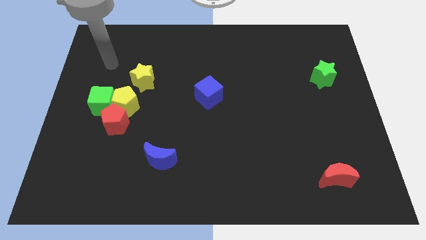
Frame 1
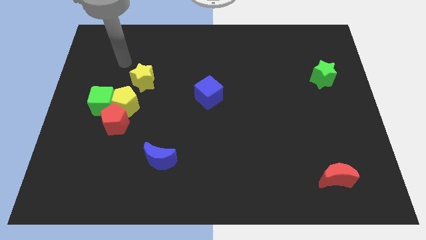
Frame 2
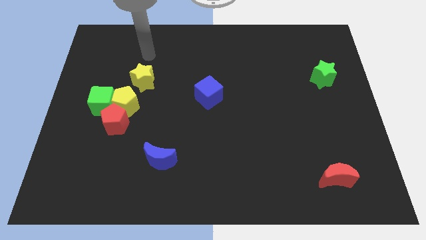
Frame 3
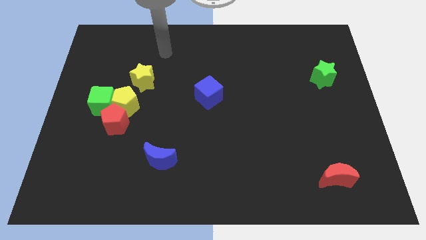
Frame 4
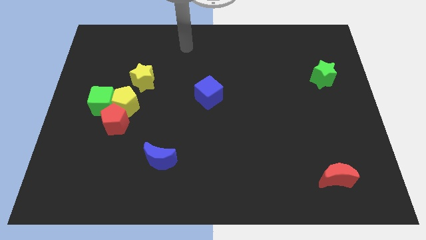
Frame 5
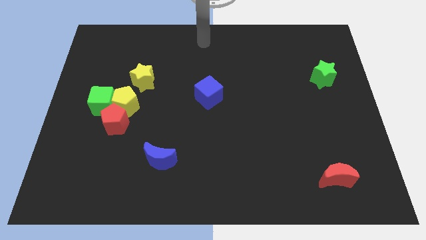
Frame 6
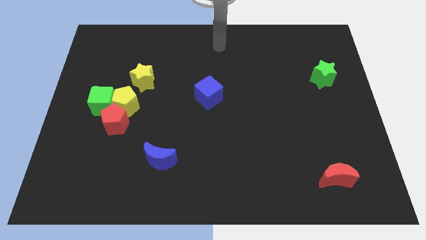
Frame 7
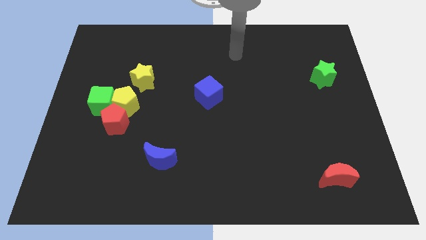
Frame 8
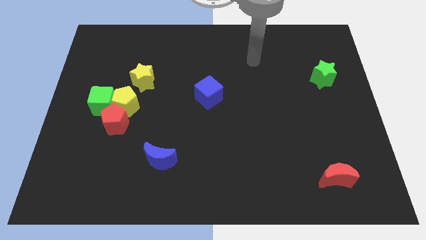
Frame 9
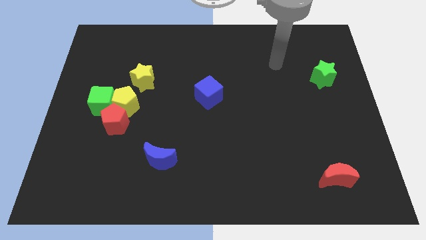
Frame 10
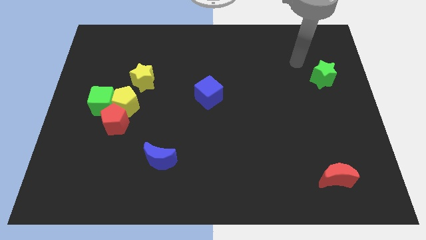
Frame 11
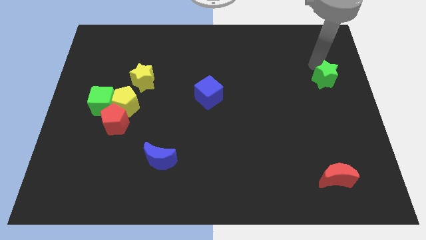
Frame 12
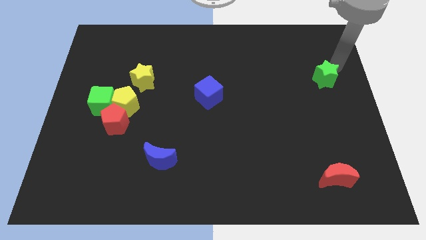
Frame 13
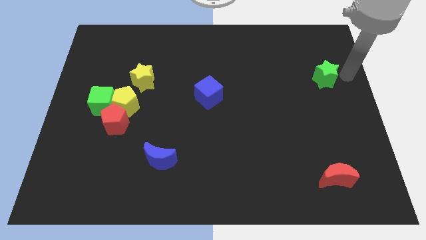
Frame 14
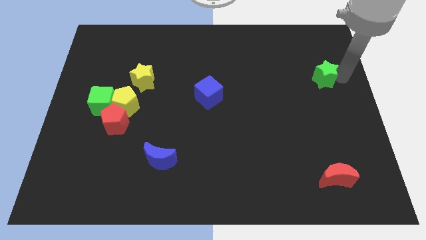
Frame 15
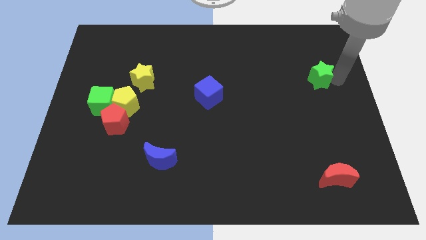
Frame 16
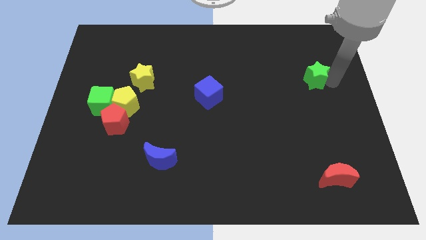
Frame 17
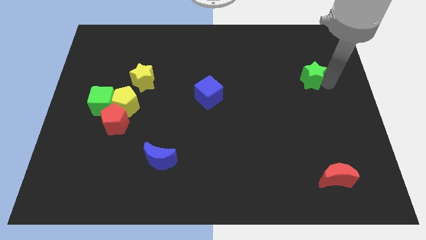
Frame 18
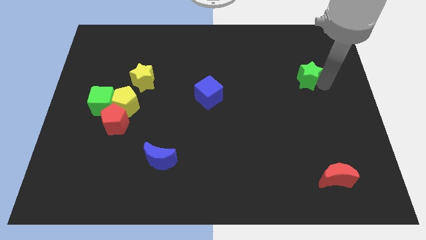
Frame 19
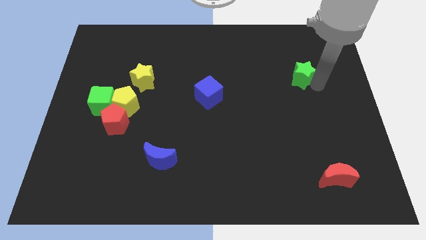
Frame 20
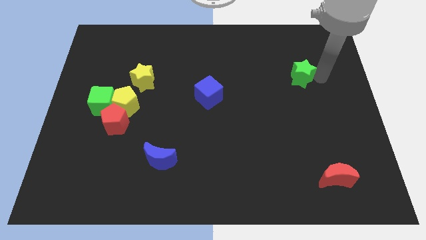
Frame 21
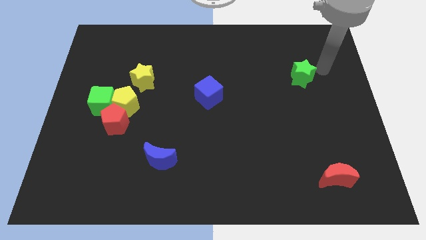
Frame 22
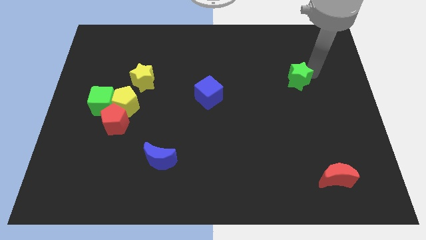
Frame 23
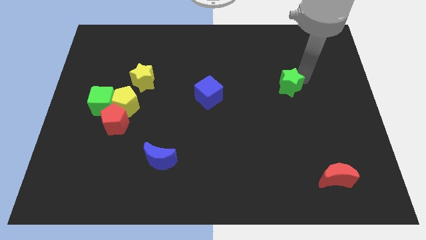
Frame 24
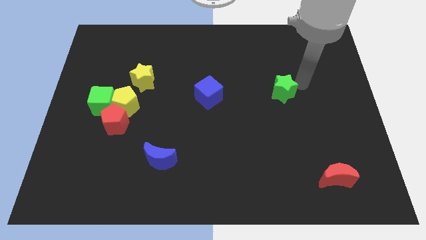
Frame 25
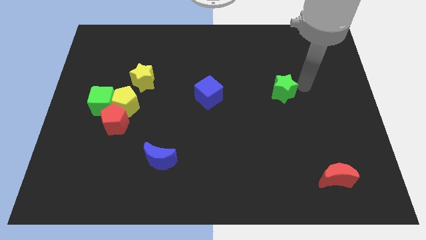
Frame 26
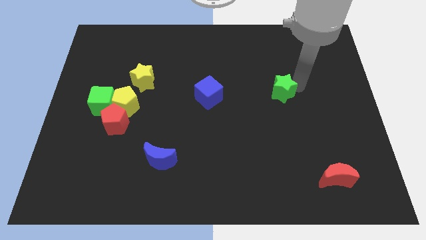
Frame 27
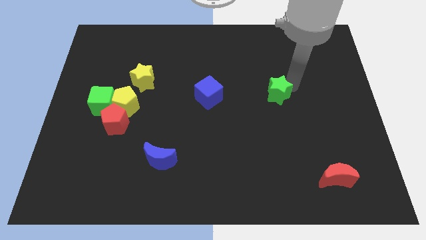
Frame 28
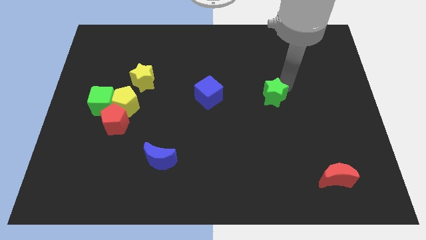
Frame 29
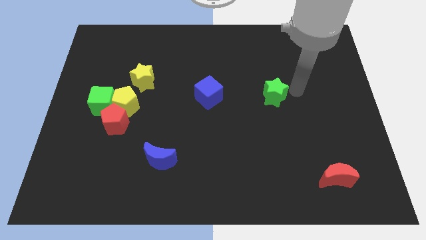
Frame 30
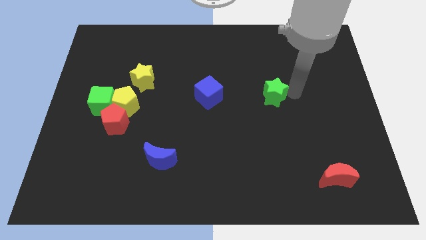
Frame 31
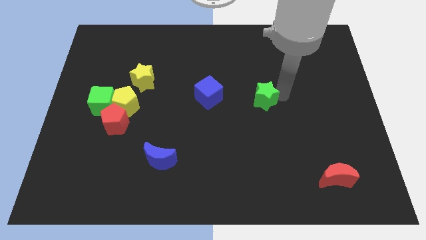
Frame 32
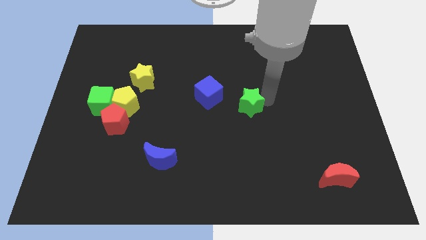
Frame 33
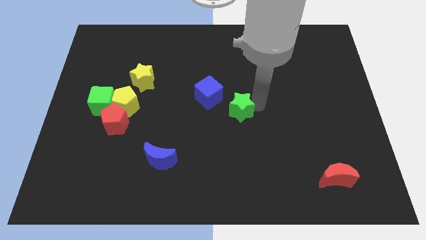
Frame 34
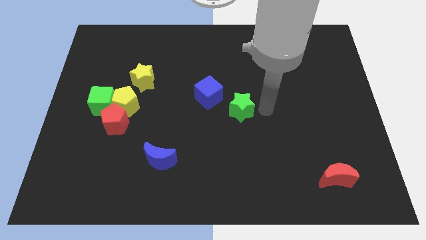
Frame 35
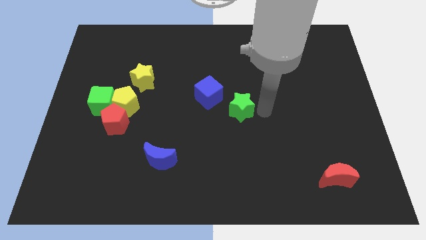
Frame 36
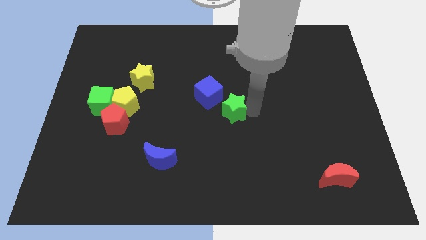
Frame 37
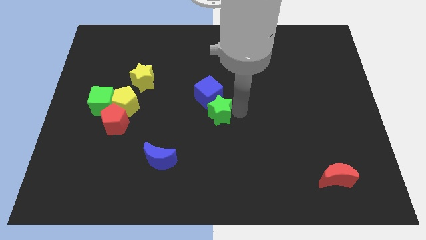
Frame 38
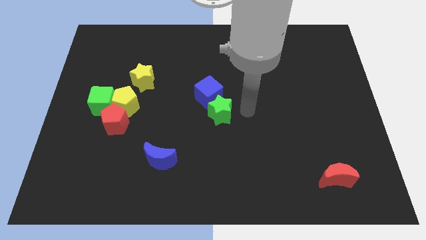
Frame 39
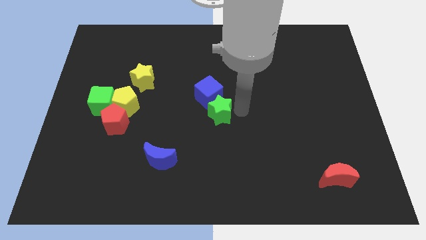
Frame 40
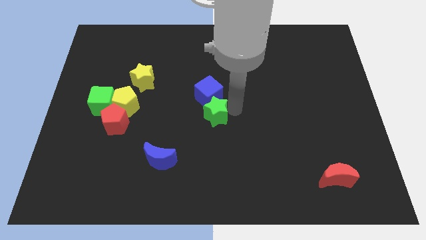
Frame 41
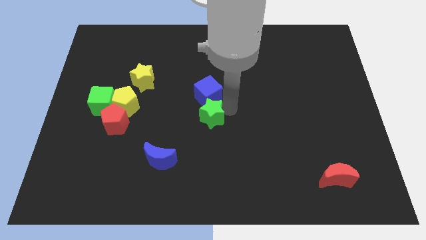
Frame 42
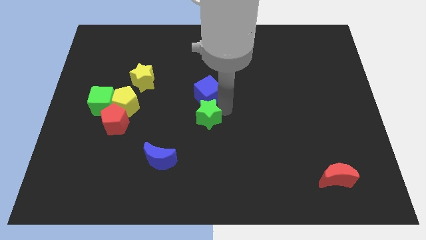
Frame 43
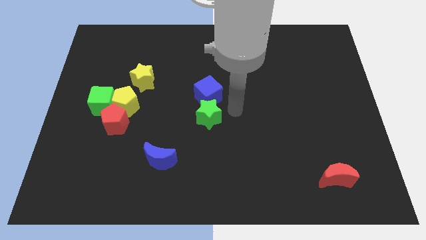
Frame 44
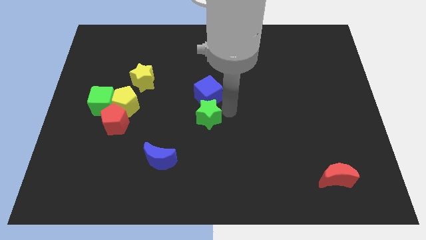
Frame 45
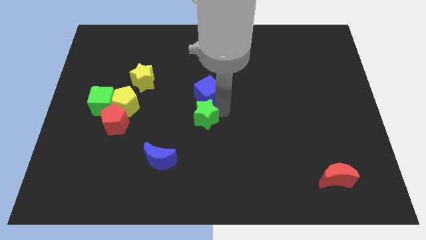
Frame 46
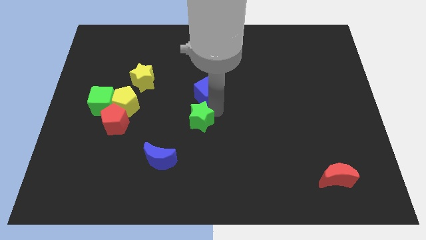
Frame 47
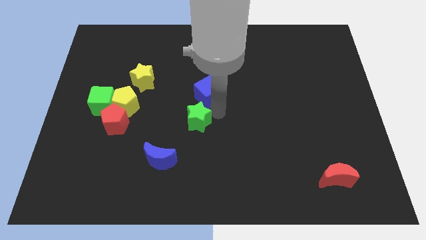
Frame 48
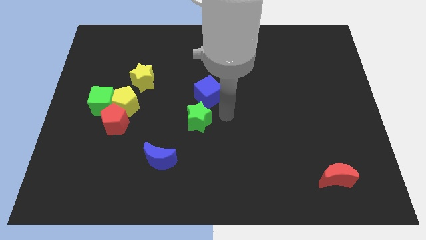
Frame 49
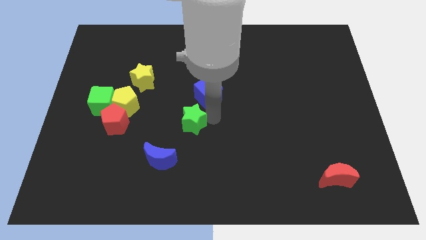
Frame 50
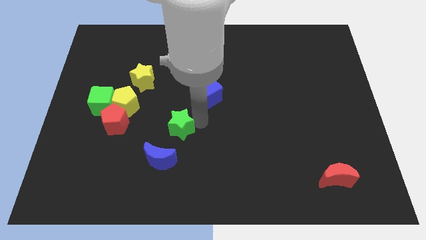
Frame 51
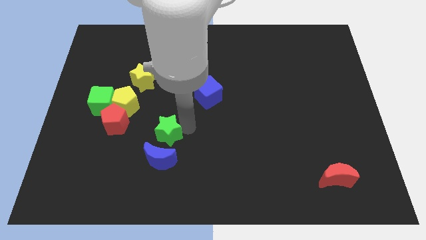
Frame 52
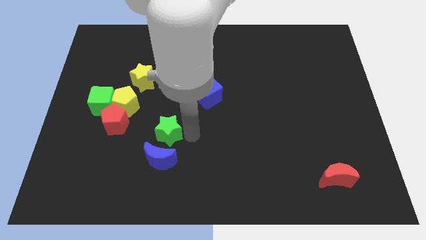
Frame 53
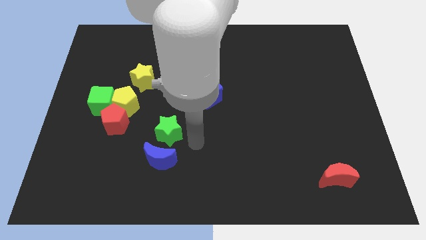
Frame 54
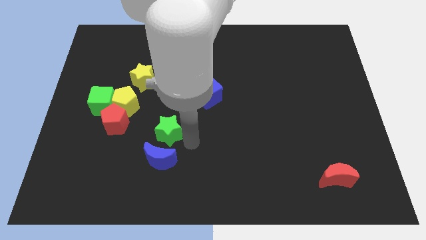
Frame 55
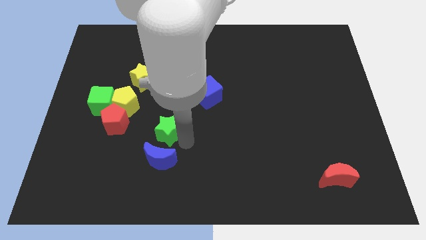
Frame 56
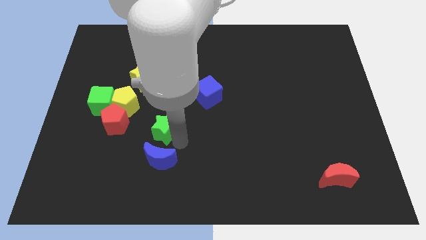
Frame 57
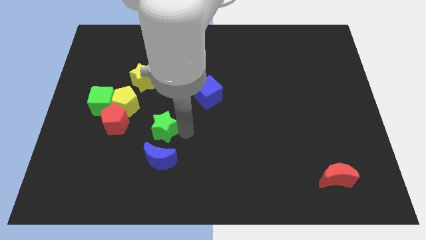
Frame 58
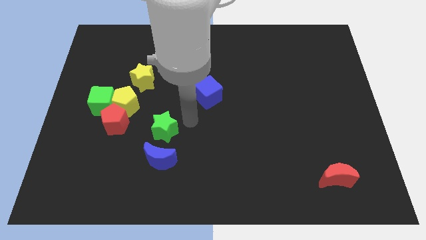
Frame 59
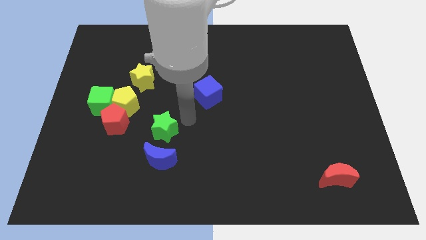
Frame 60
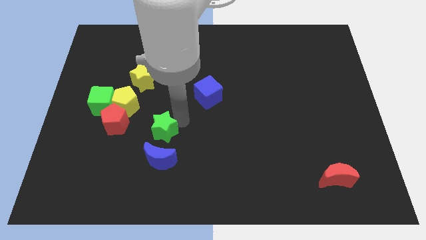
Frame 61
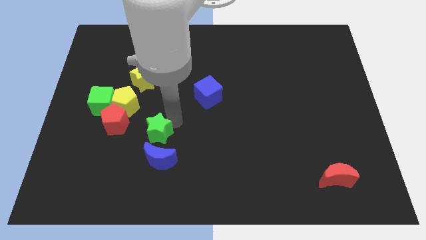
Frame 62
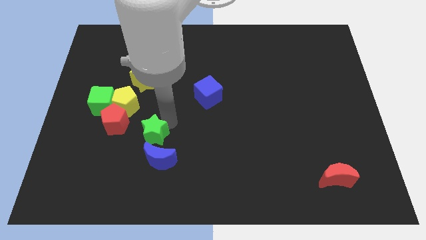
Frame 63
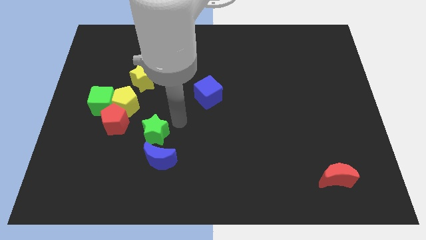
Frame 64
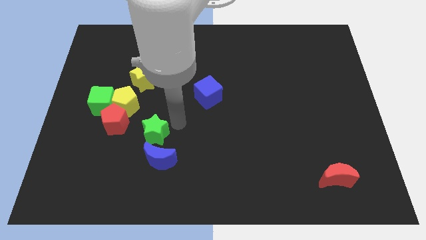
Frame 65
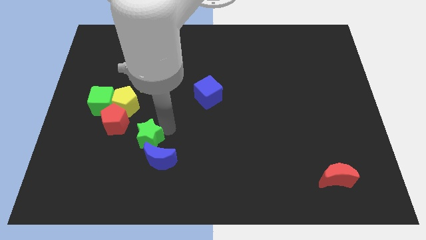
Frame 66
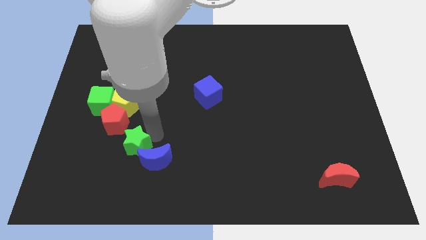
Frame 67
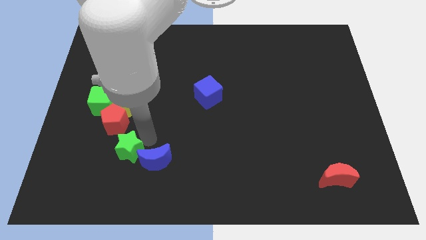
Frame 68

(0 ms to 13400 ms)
slide the green star to the bottom side of the red pentagon
